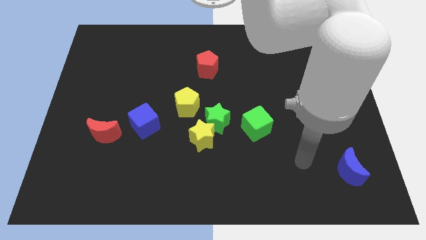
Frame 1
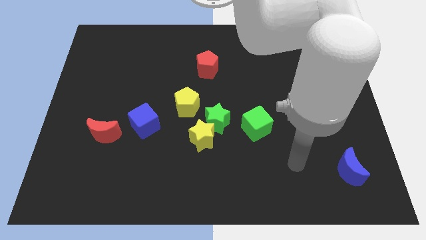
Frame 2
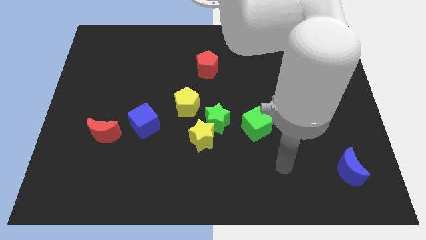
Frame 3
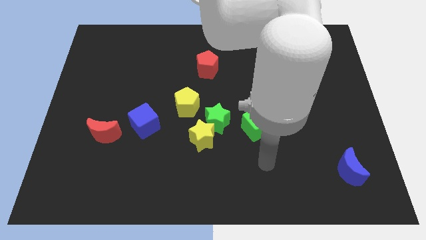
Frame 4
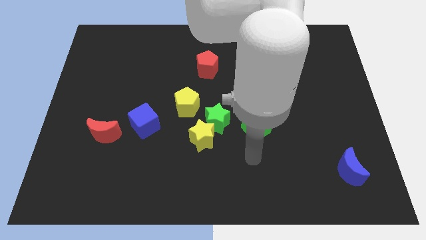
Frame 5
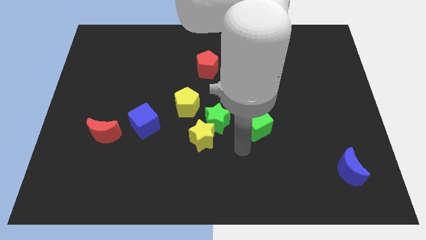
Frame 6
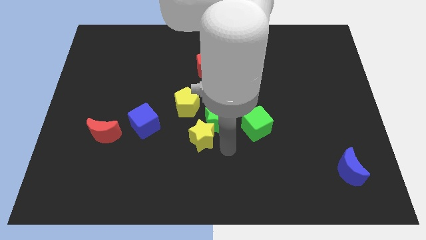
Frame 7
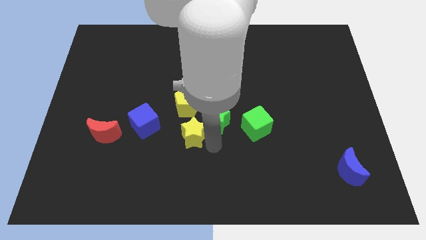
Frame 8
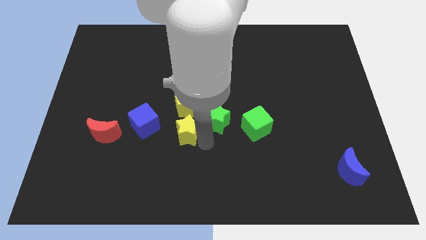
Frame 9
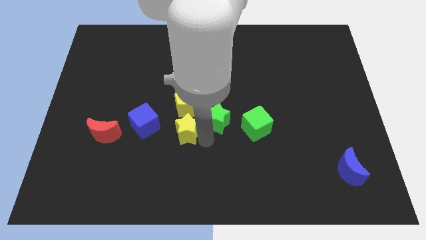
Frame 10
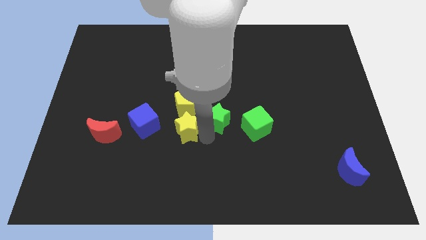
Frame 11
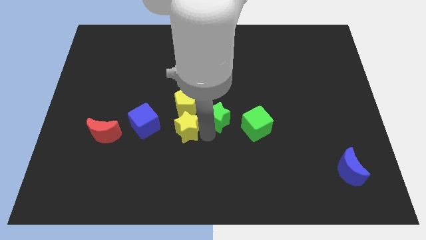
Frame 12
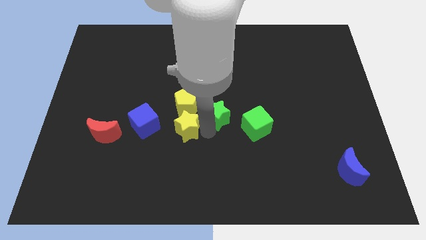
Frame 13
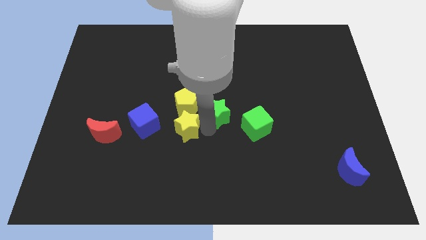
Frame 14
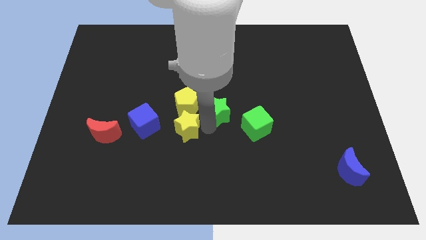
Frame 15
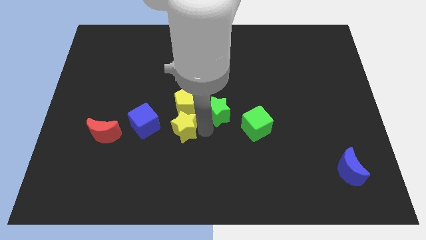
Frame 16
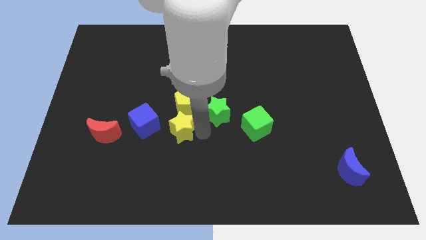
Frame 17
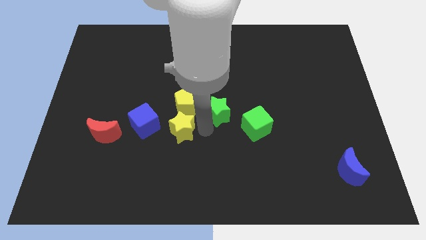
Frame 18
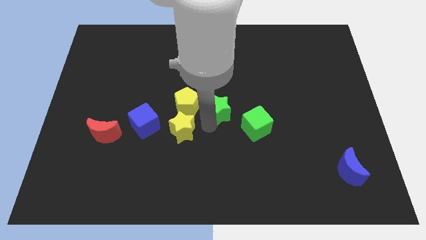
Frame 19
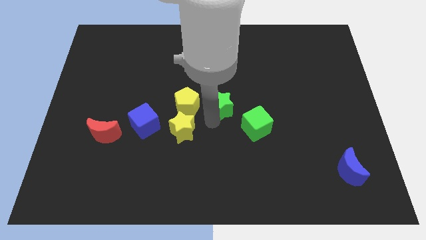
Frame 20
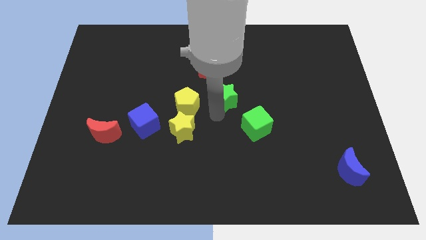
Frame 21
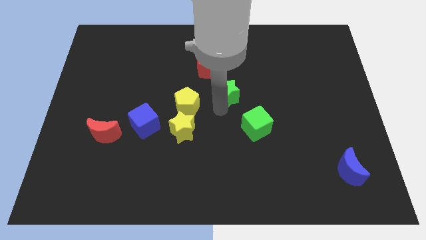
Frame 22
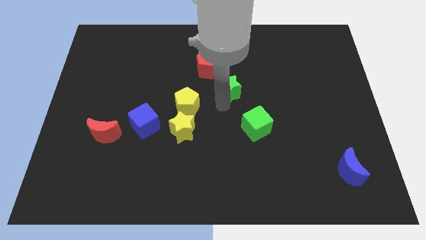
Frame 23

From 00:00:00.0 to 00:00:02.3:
separate the green star from the yellow star, yellow pentagon, and green cube

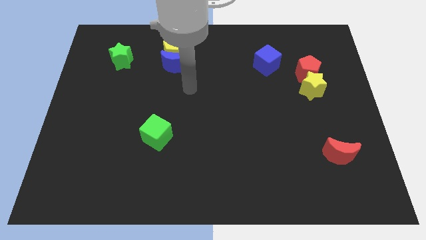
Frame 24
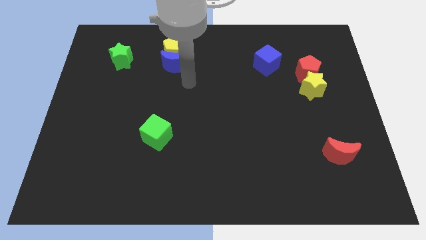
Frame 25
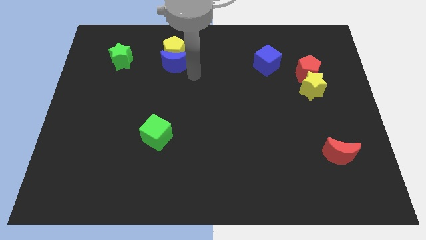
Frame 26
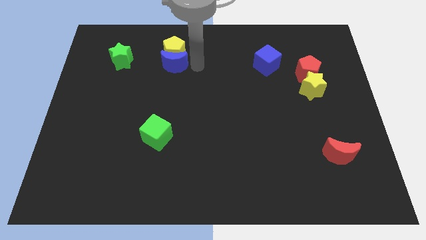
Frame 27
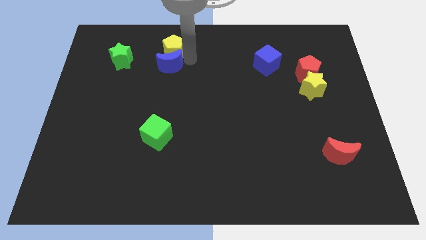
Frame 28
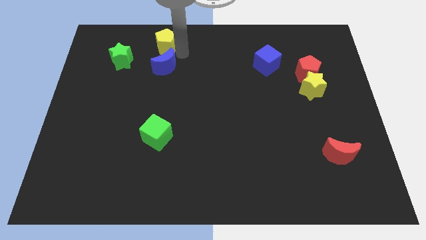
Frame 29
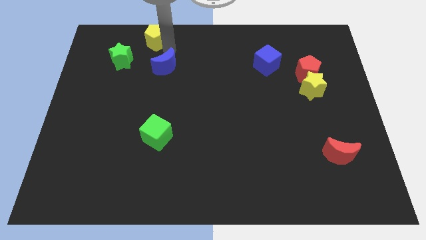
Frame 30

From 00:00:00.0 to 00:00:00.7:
pull the blue moon apart from the yellow pentagon

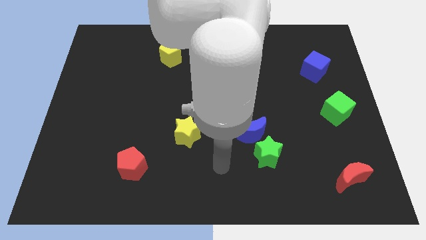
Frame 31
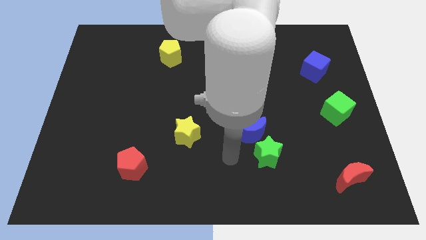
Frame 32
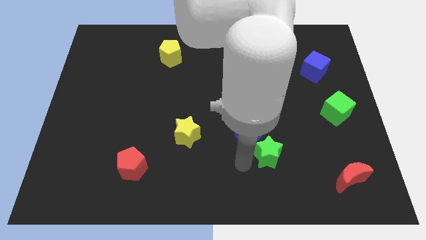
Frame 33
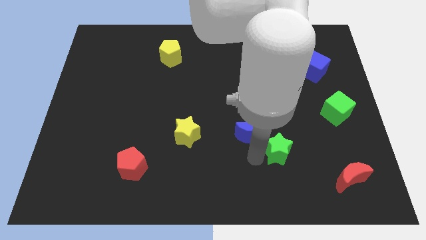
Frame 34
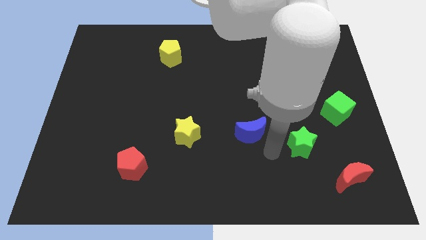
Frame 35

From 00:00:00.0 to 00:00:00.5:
move the blue moon away from the green star

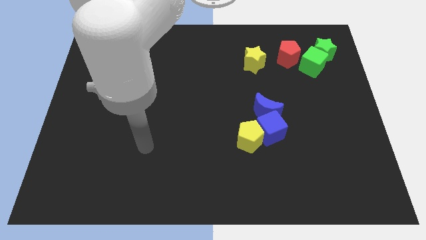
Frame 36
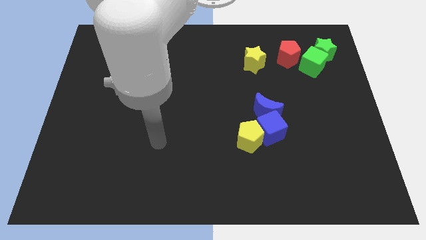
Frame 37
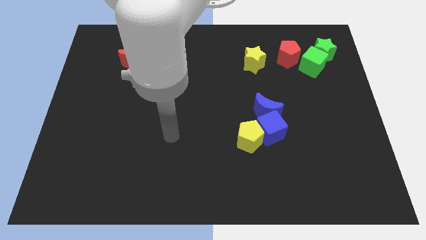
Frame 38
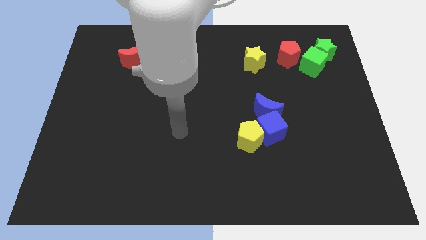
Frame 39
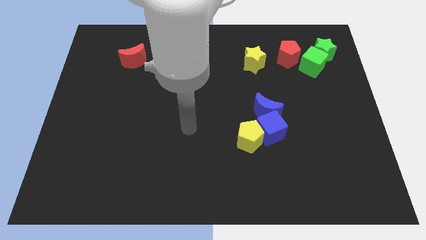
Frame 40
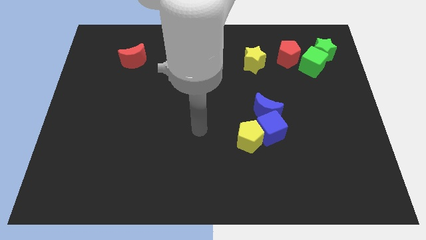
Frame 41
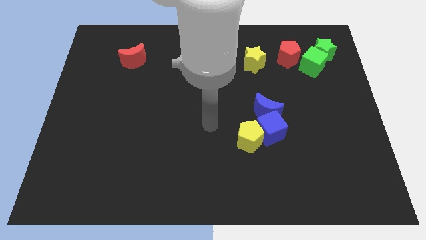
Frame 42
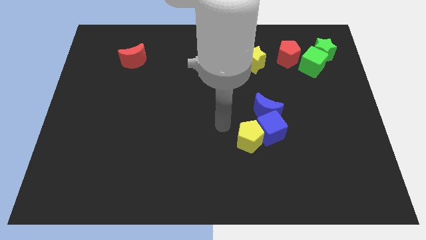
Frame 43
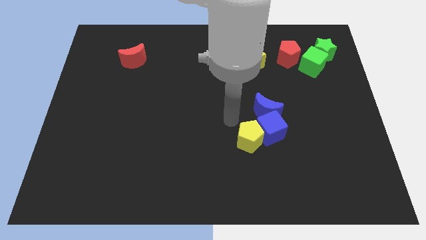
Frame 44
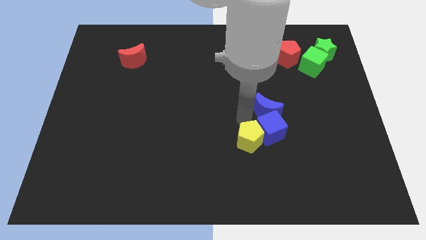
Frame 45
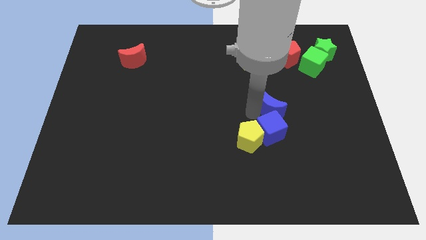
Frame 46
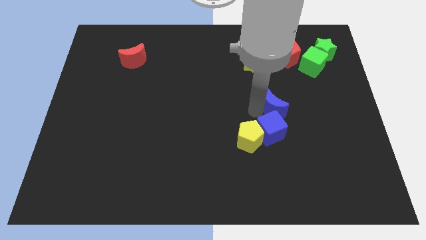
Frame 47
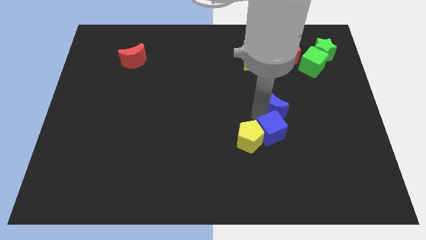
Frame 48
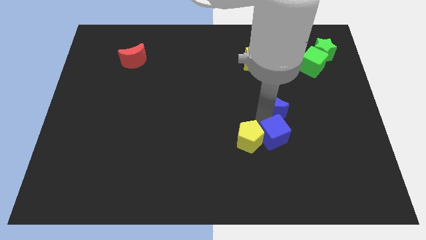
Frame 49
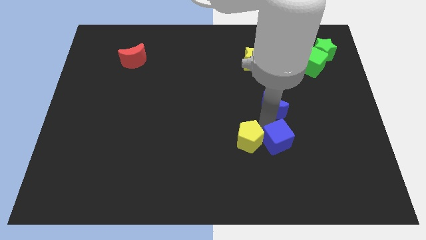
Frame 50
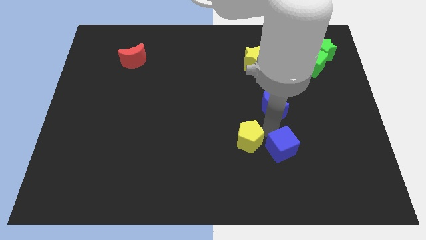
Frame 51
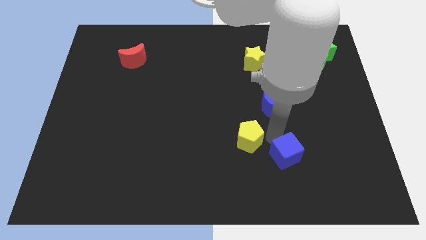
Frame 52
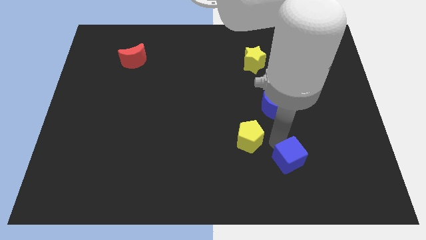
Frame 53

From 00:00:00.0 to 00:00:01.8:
pull the blue cube apart from the yellow pentagon and blue moon

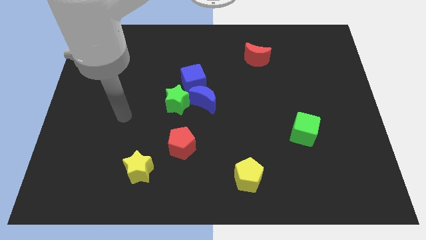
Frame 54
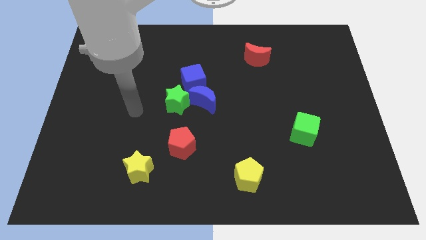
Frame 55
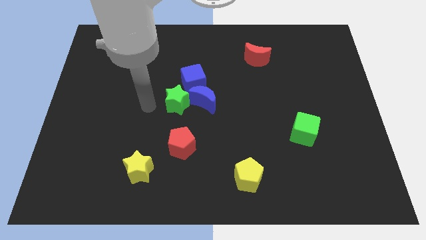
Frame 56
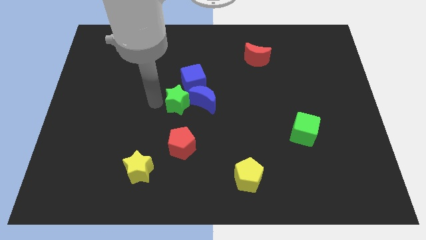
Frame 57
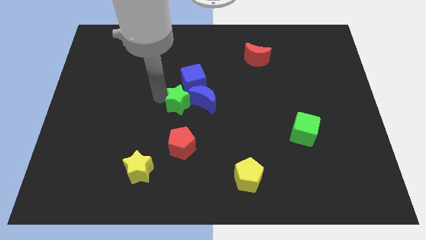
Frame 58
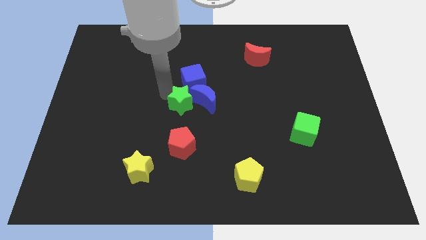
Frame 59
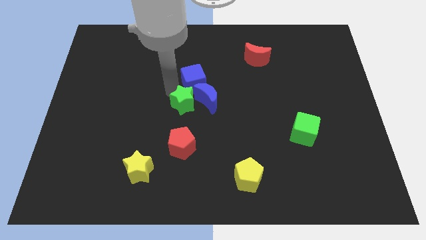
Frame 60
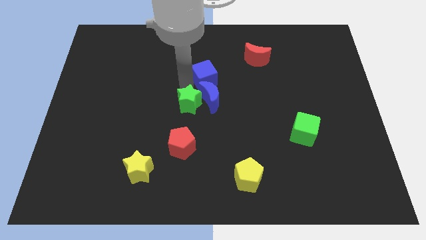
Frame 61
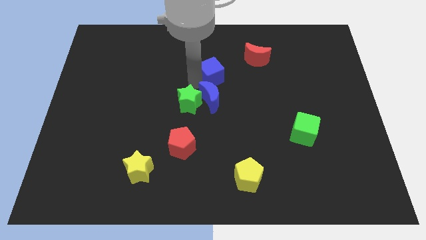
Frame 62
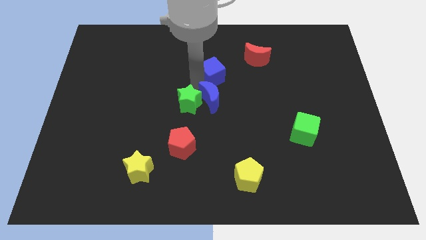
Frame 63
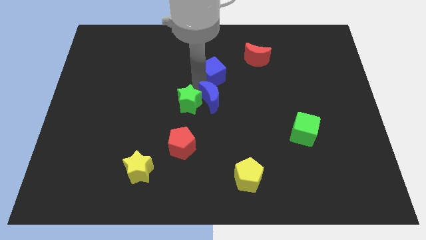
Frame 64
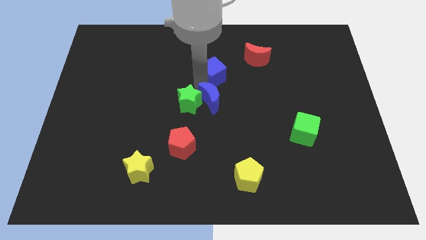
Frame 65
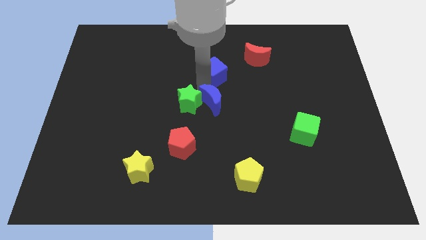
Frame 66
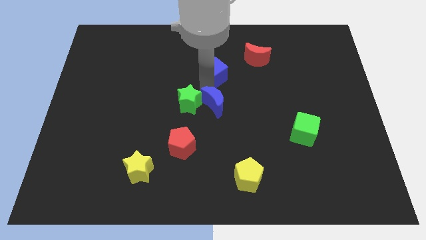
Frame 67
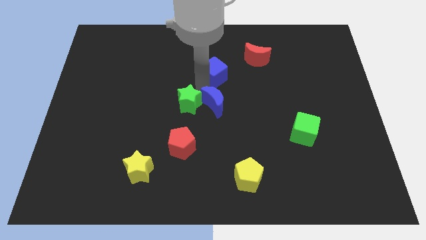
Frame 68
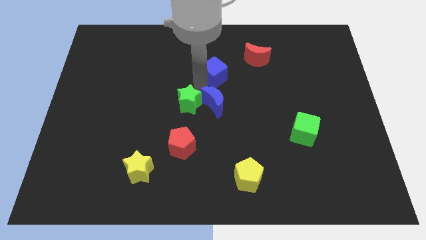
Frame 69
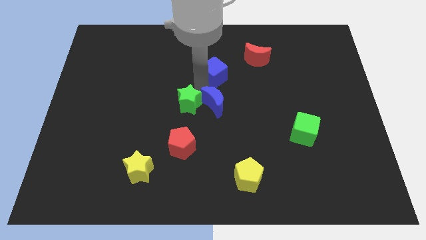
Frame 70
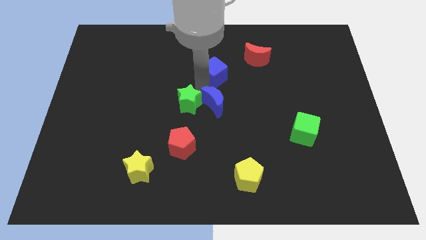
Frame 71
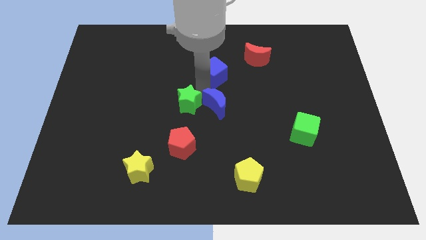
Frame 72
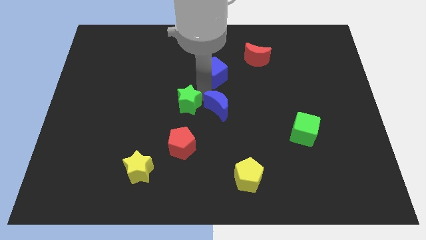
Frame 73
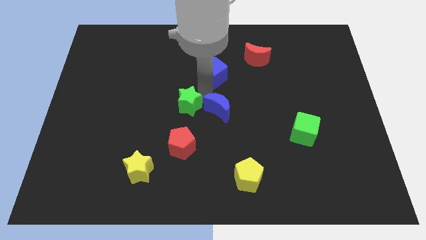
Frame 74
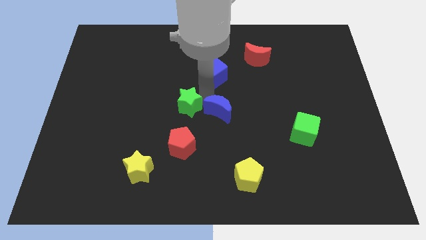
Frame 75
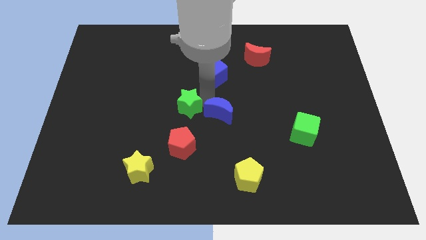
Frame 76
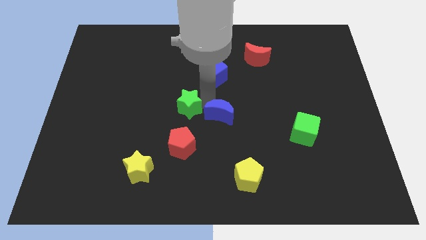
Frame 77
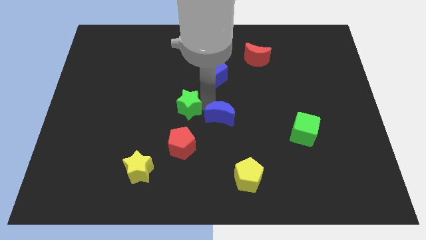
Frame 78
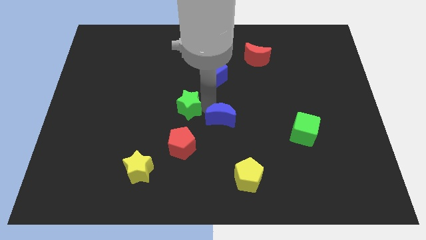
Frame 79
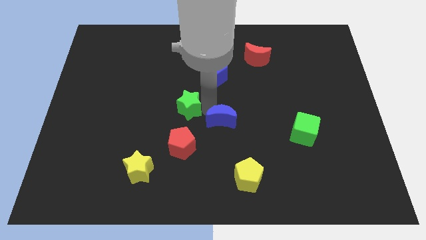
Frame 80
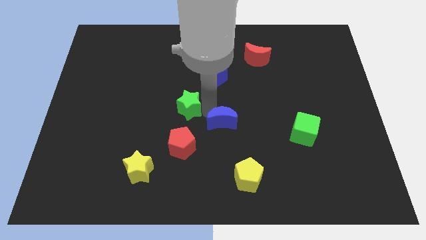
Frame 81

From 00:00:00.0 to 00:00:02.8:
move the blue moon away from the blue cube and green star

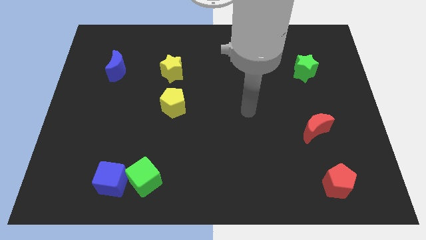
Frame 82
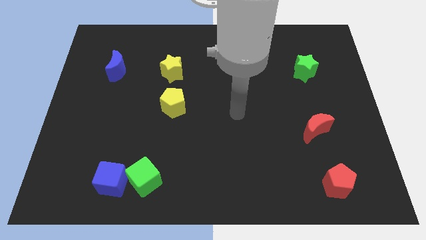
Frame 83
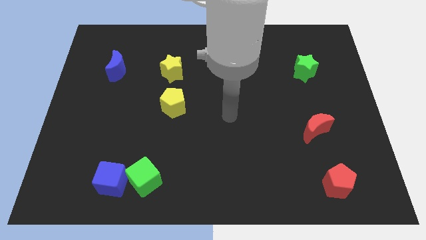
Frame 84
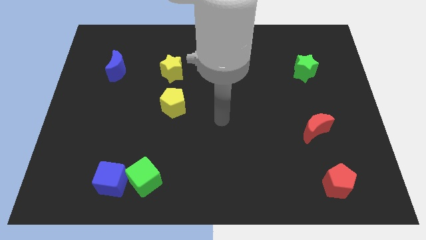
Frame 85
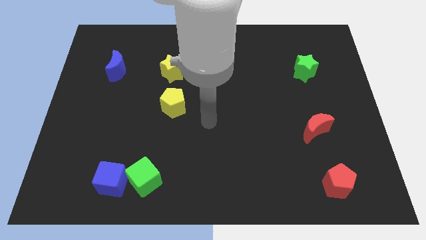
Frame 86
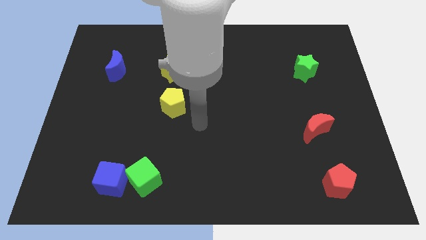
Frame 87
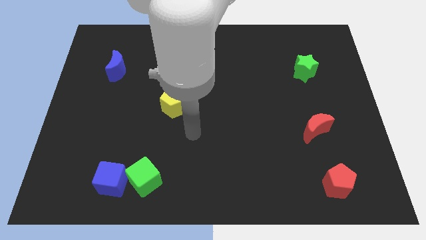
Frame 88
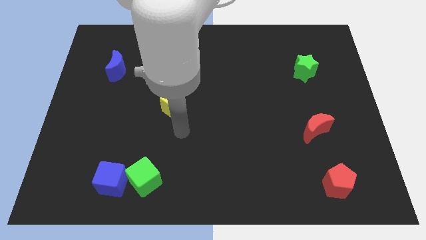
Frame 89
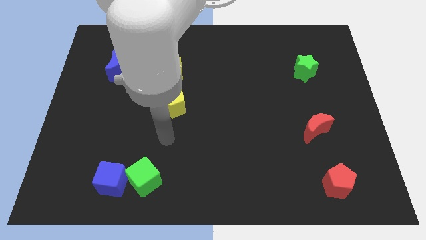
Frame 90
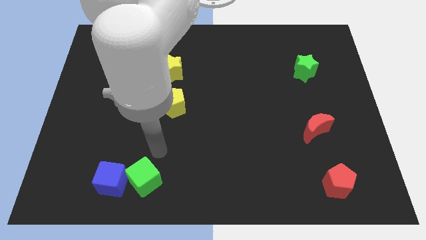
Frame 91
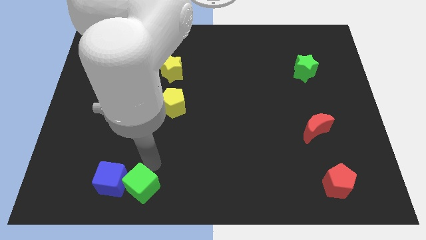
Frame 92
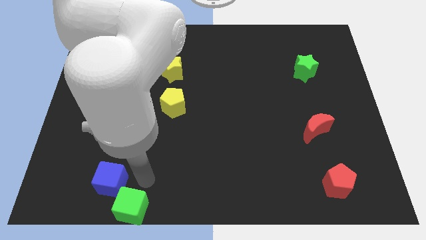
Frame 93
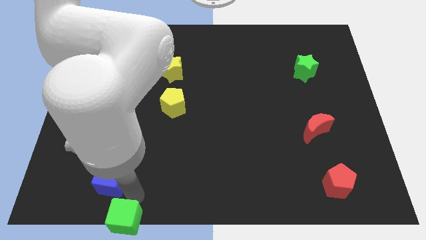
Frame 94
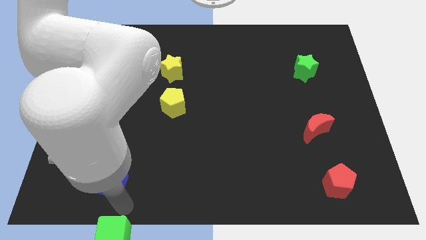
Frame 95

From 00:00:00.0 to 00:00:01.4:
separate the blue cube from the green cube
